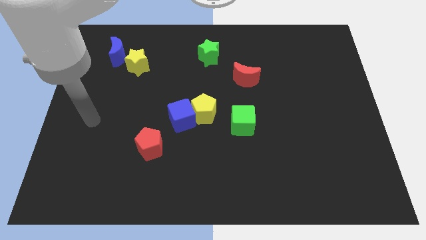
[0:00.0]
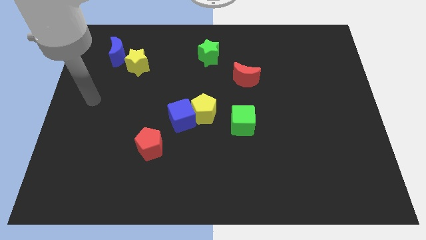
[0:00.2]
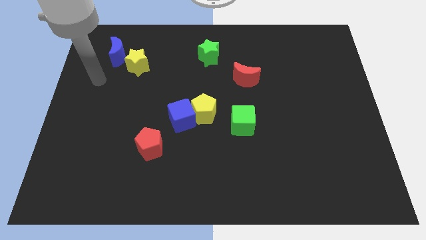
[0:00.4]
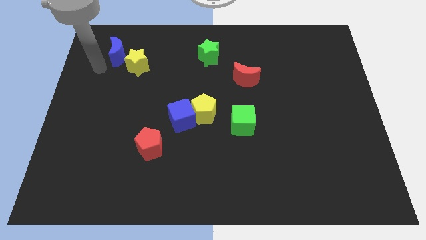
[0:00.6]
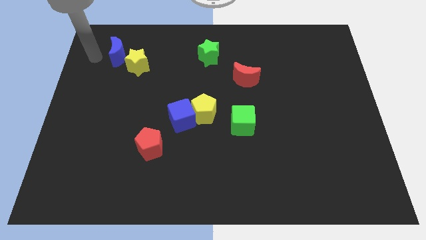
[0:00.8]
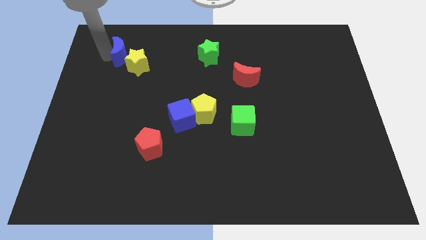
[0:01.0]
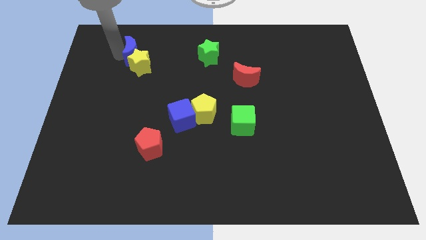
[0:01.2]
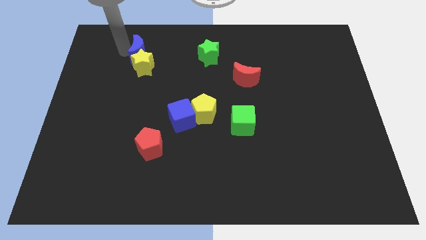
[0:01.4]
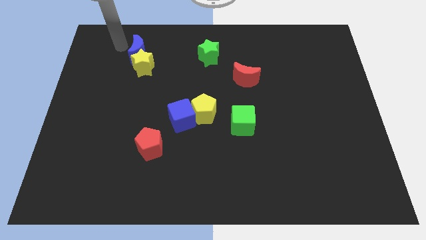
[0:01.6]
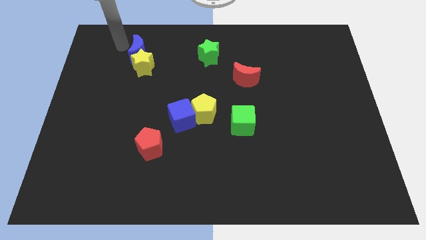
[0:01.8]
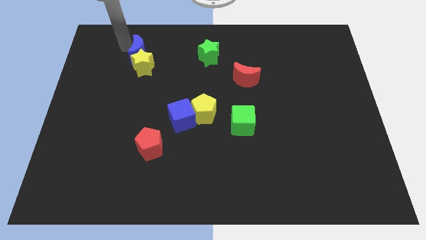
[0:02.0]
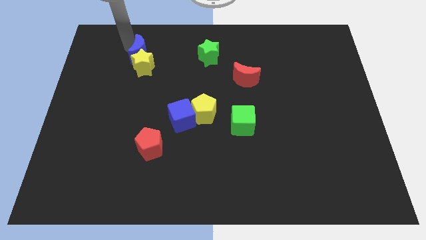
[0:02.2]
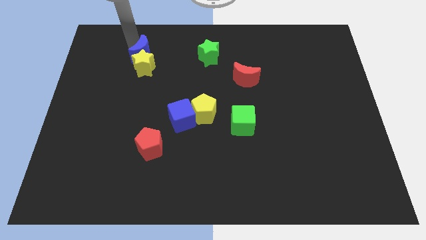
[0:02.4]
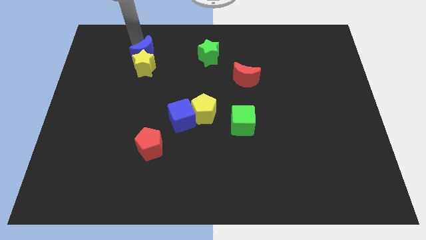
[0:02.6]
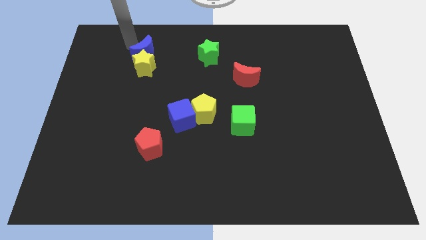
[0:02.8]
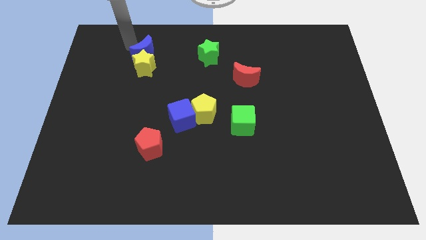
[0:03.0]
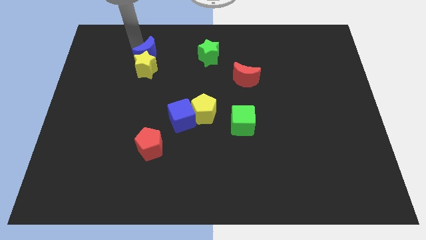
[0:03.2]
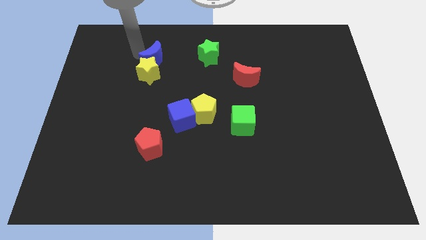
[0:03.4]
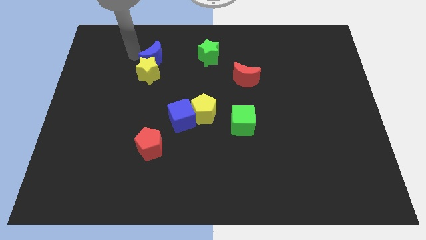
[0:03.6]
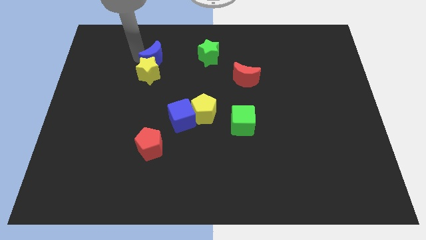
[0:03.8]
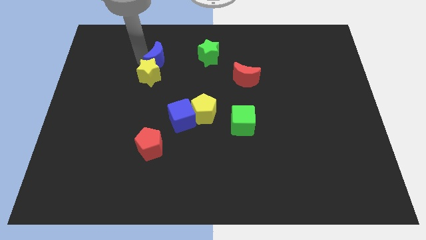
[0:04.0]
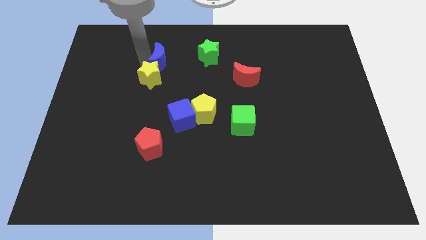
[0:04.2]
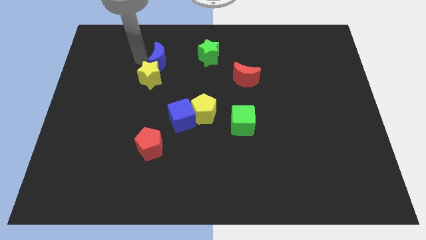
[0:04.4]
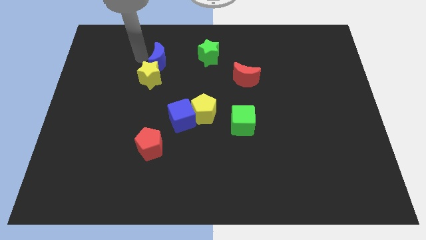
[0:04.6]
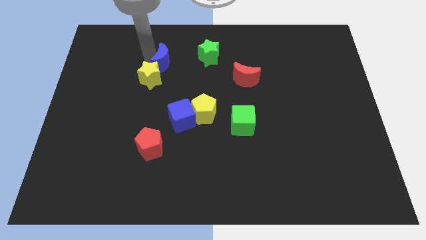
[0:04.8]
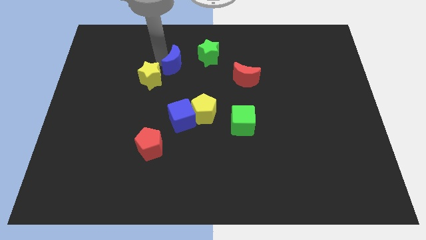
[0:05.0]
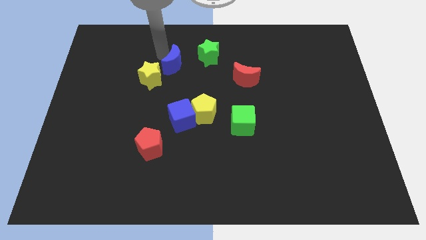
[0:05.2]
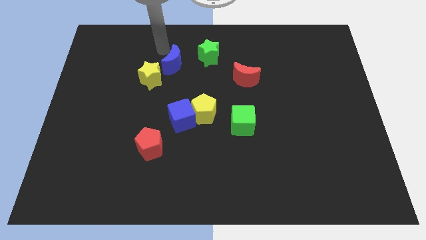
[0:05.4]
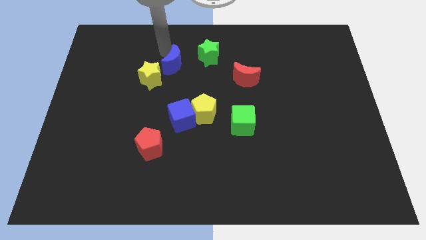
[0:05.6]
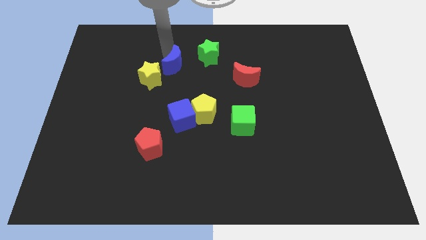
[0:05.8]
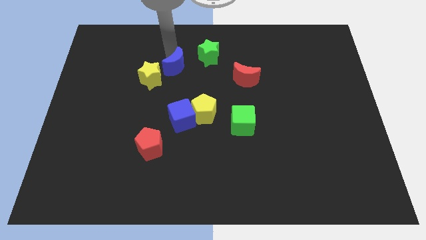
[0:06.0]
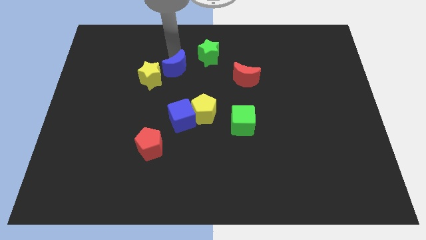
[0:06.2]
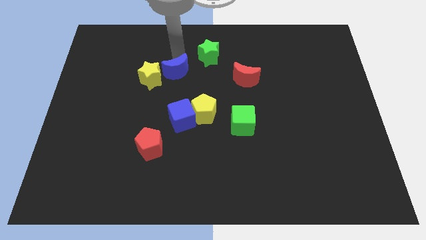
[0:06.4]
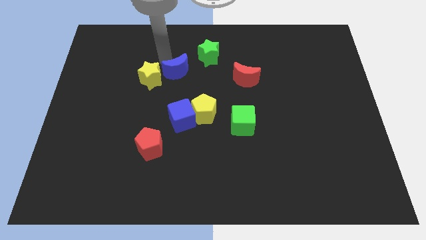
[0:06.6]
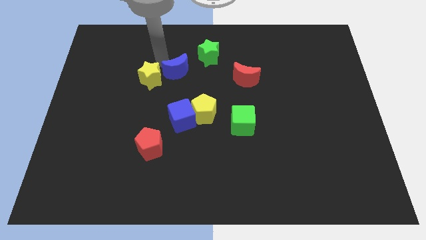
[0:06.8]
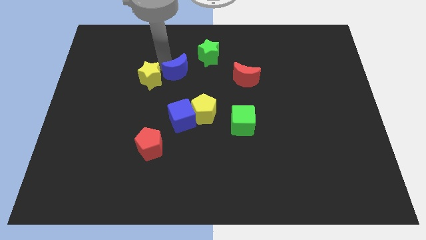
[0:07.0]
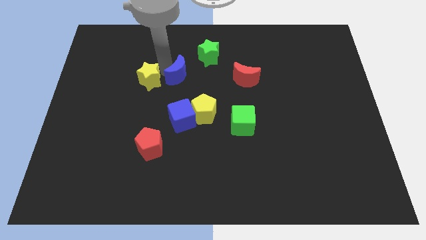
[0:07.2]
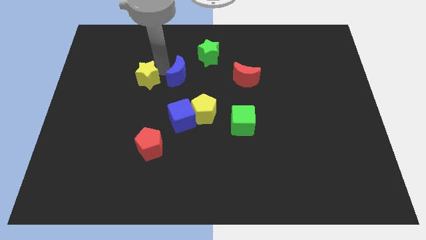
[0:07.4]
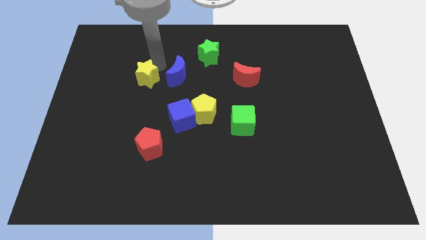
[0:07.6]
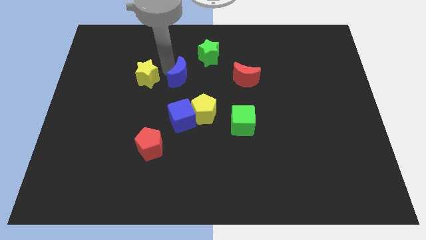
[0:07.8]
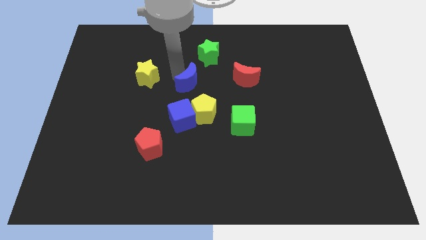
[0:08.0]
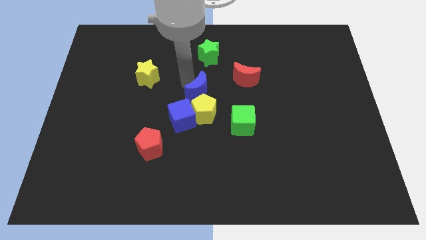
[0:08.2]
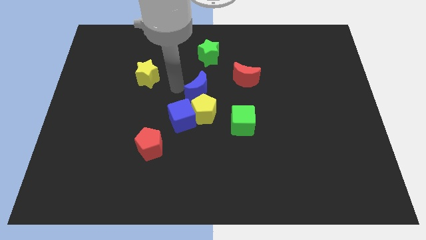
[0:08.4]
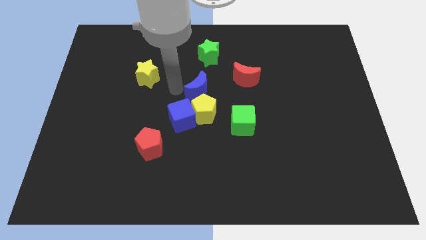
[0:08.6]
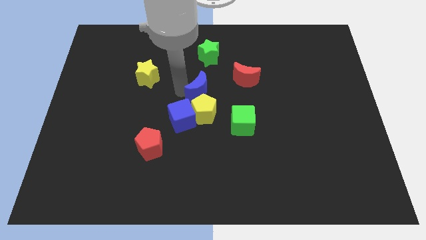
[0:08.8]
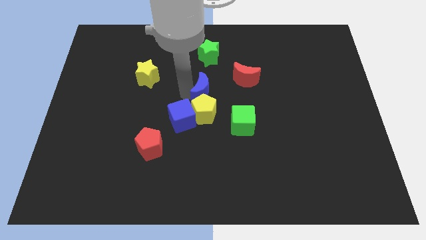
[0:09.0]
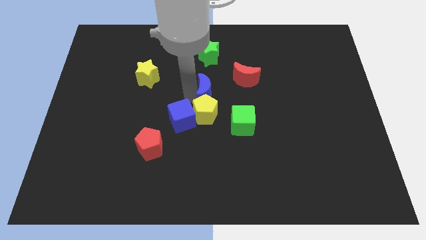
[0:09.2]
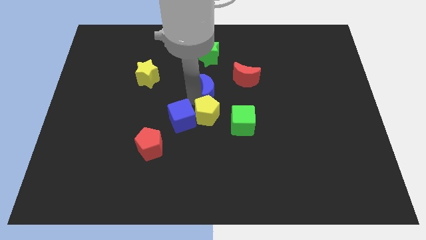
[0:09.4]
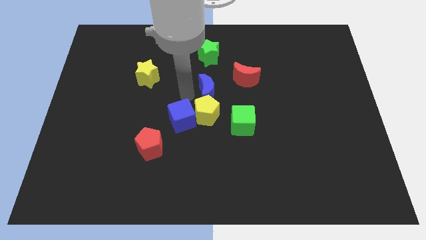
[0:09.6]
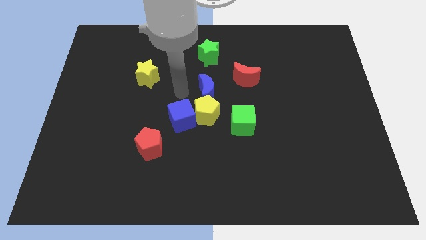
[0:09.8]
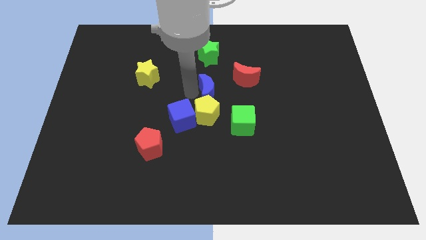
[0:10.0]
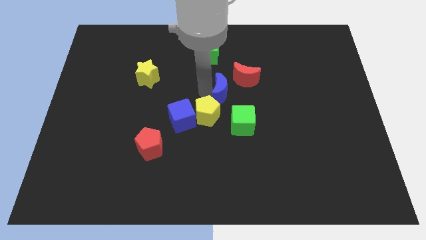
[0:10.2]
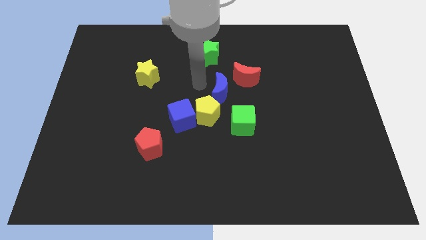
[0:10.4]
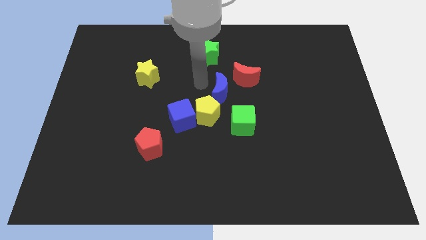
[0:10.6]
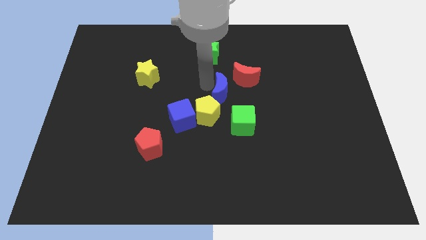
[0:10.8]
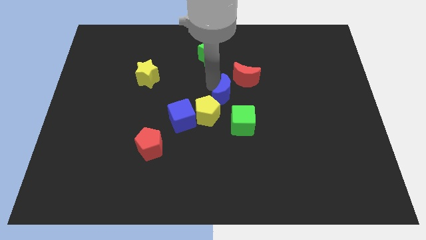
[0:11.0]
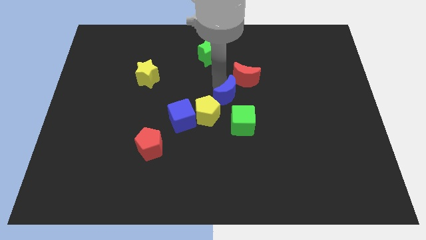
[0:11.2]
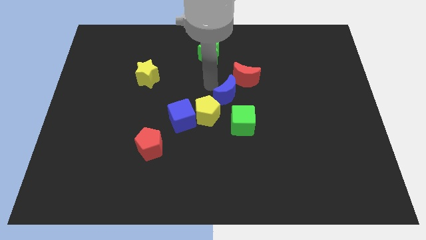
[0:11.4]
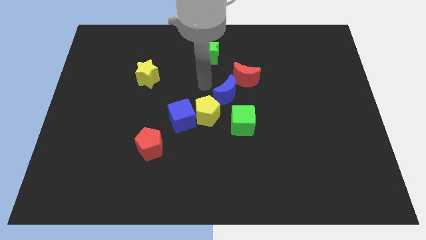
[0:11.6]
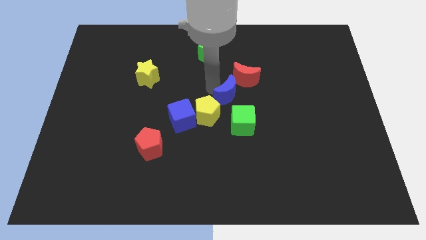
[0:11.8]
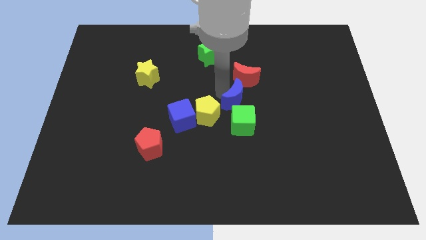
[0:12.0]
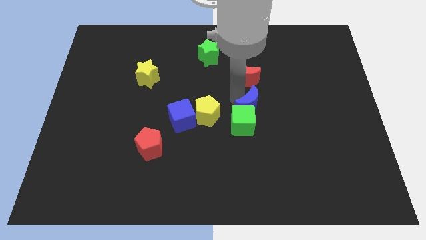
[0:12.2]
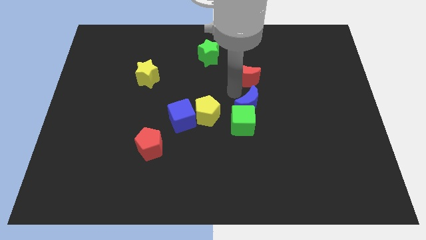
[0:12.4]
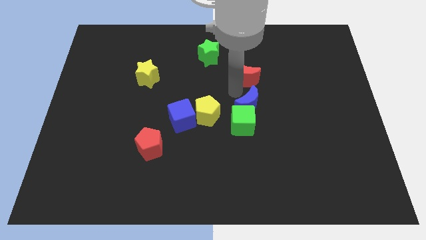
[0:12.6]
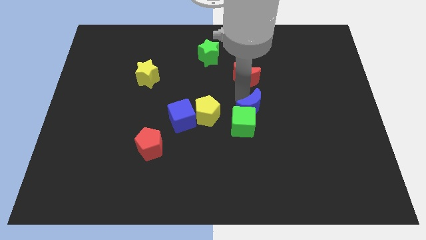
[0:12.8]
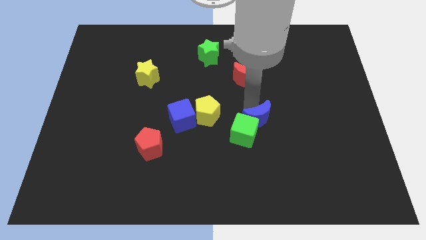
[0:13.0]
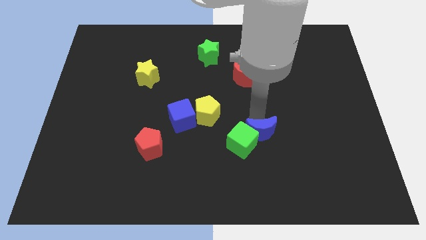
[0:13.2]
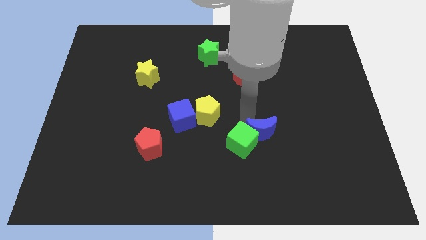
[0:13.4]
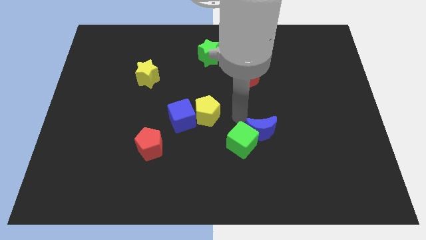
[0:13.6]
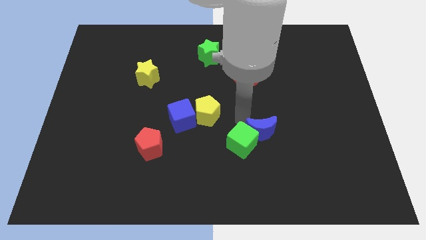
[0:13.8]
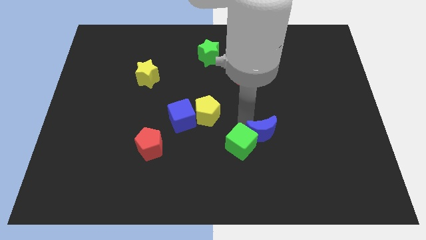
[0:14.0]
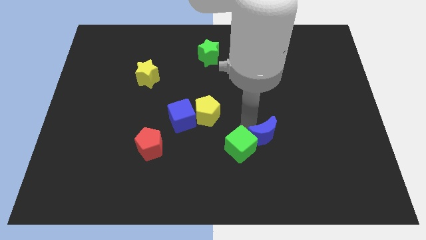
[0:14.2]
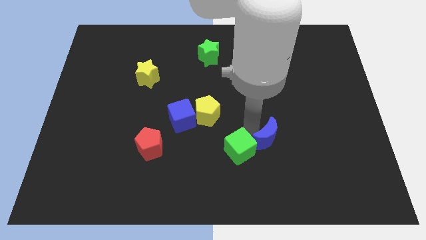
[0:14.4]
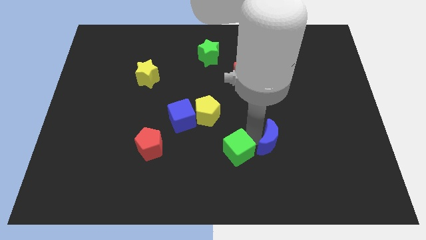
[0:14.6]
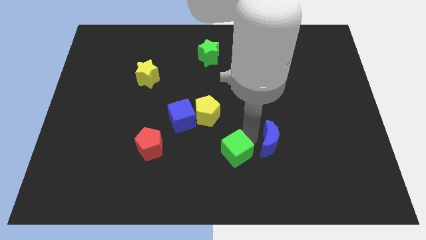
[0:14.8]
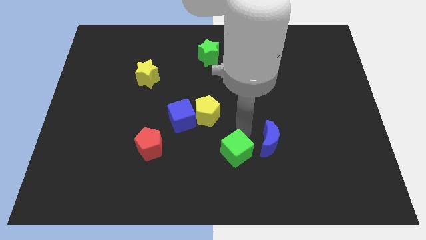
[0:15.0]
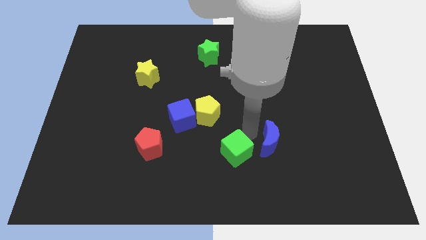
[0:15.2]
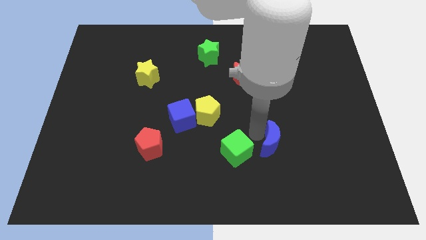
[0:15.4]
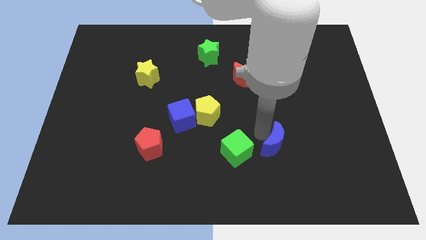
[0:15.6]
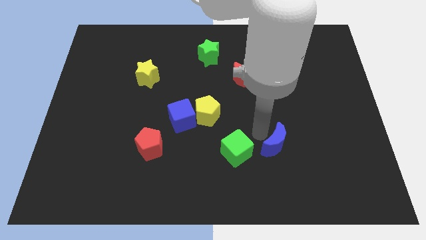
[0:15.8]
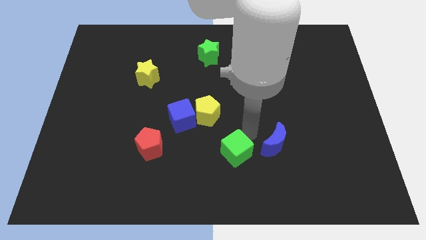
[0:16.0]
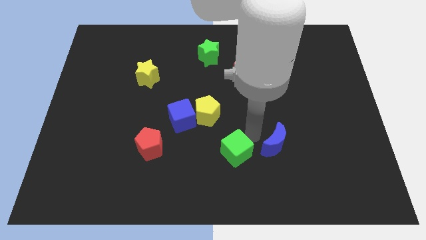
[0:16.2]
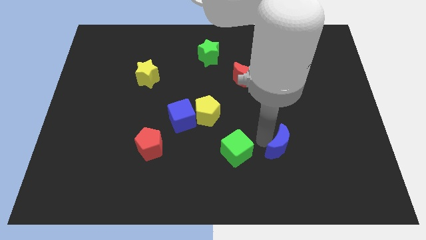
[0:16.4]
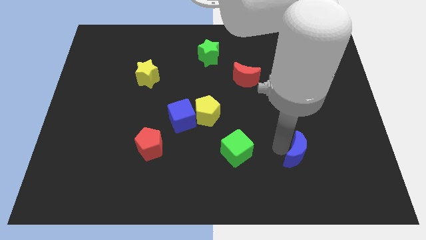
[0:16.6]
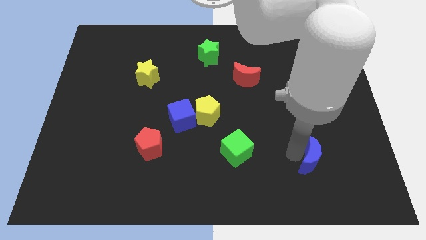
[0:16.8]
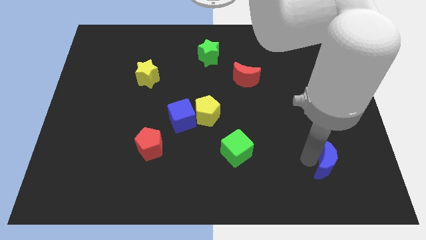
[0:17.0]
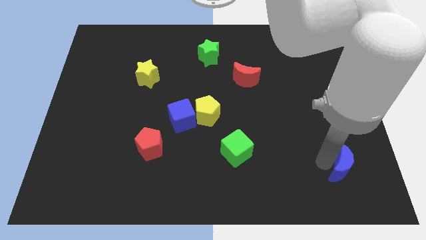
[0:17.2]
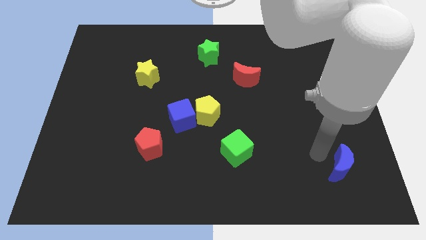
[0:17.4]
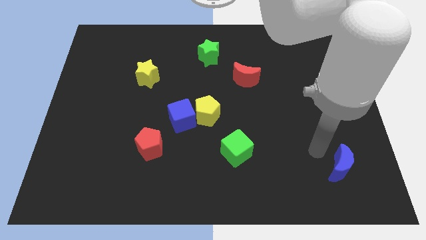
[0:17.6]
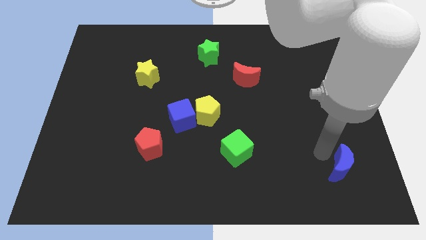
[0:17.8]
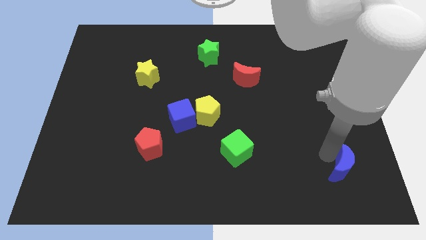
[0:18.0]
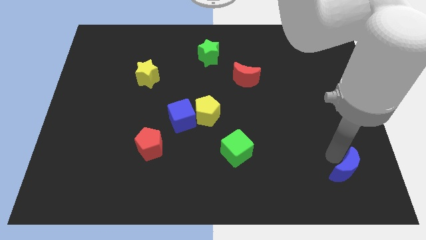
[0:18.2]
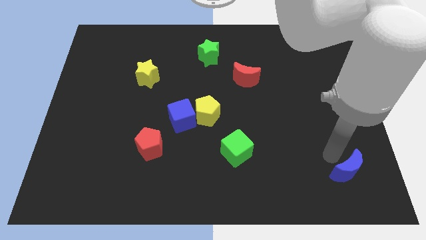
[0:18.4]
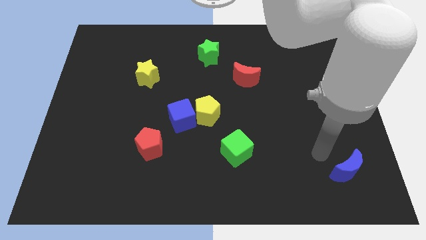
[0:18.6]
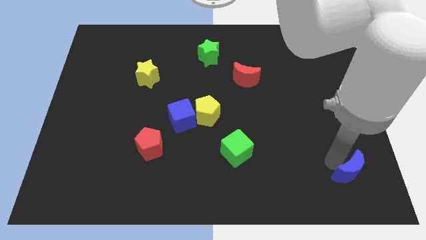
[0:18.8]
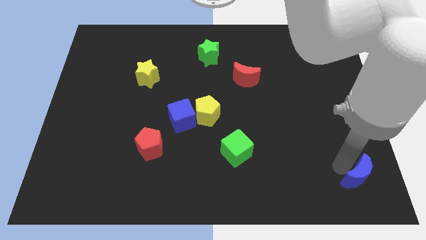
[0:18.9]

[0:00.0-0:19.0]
put the blue moon to the lower right corner
